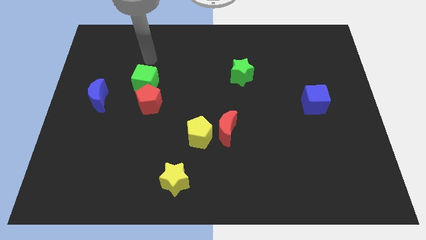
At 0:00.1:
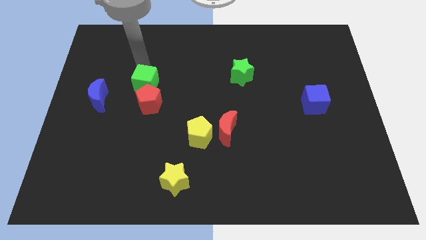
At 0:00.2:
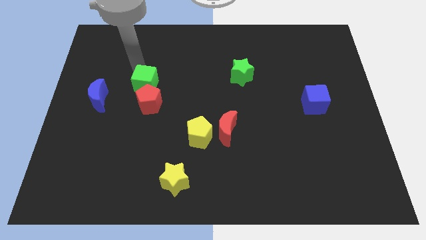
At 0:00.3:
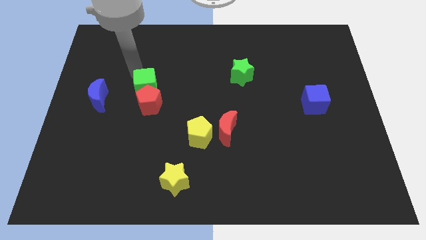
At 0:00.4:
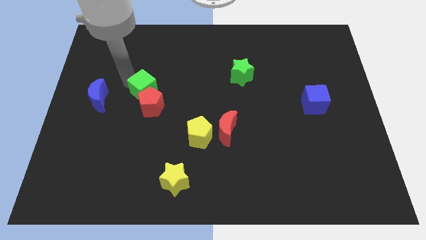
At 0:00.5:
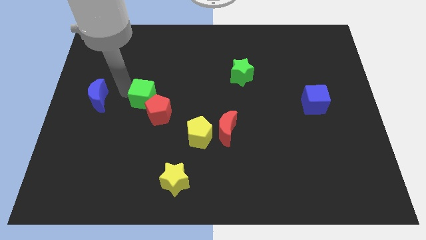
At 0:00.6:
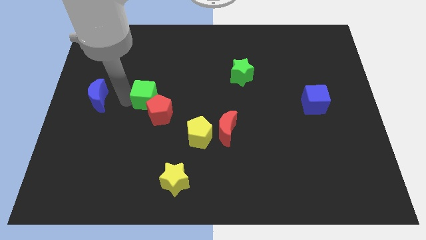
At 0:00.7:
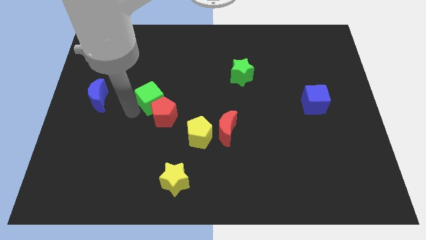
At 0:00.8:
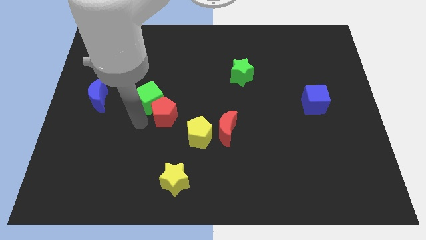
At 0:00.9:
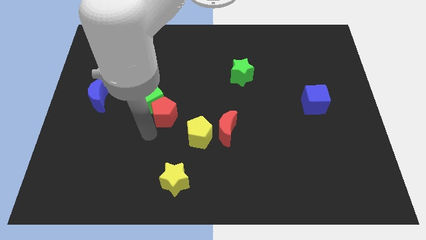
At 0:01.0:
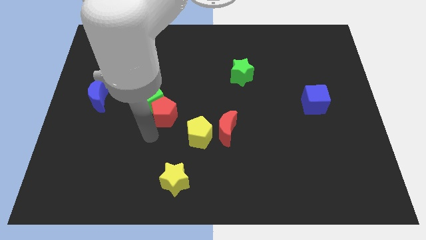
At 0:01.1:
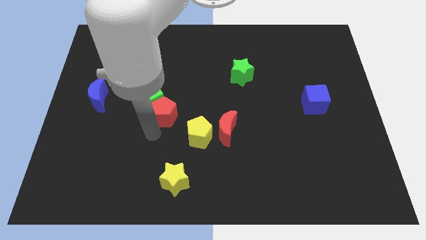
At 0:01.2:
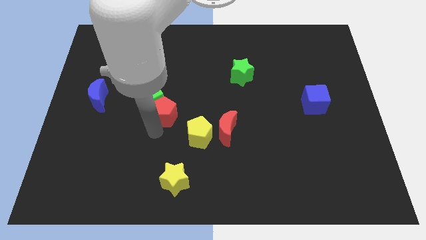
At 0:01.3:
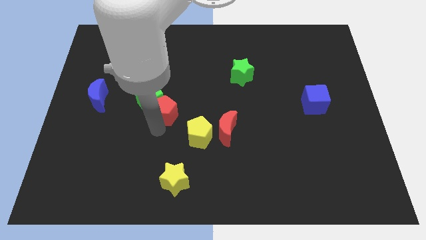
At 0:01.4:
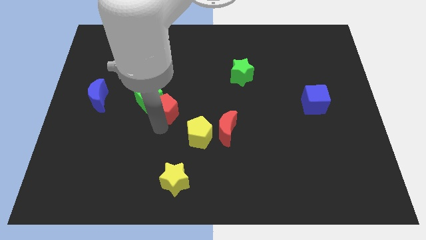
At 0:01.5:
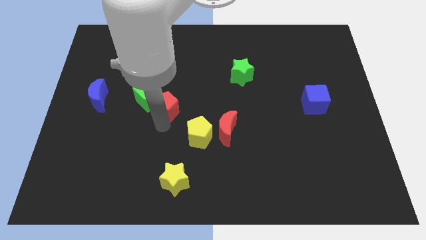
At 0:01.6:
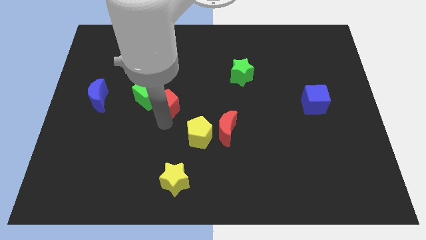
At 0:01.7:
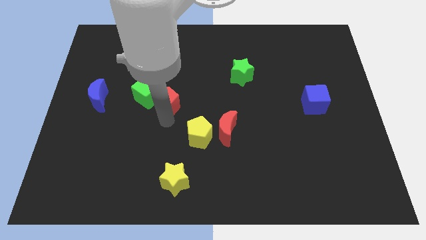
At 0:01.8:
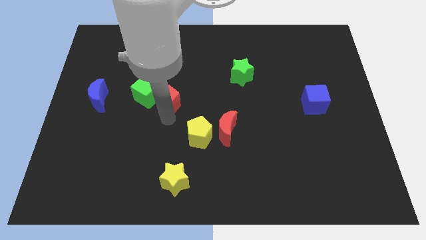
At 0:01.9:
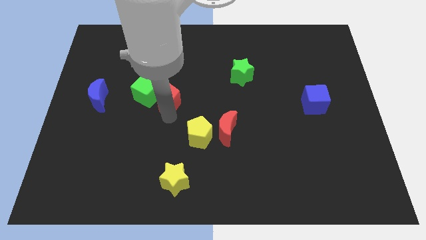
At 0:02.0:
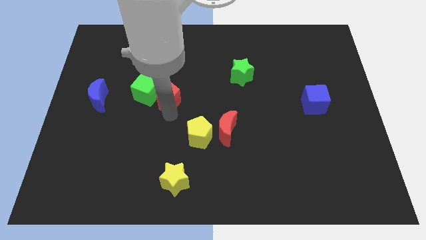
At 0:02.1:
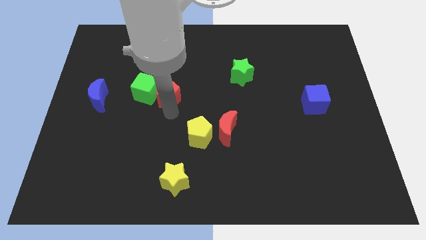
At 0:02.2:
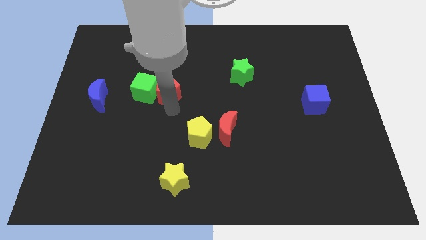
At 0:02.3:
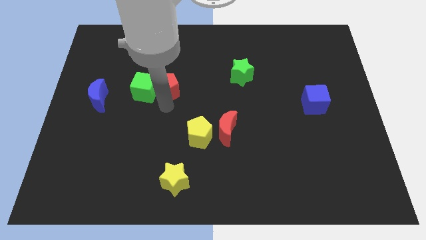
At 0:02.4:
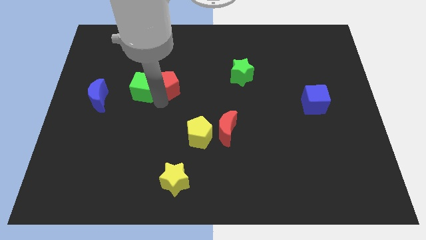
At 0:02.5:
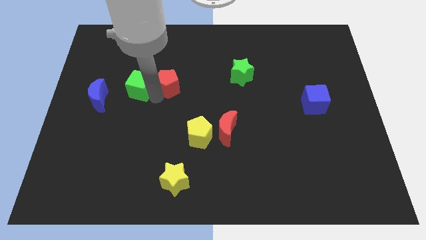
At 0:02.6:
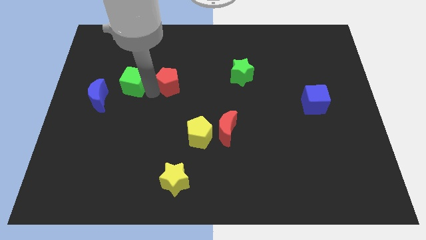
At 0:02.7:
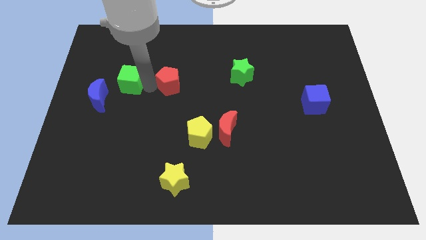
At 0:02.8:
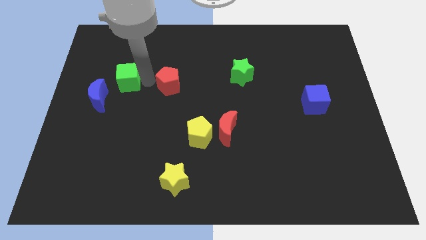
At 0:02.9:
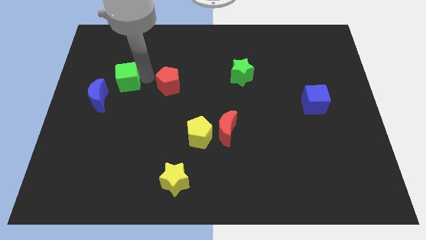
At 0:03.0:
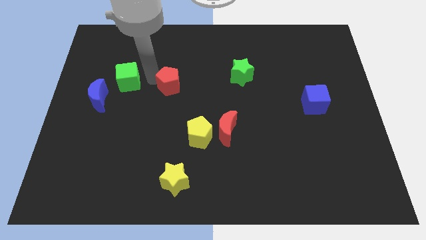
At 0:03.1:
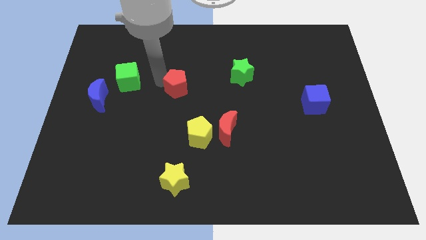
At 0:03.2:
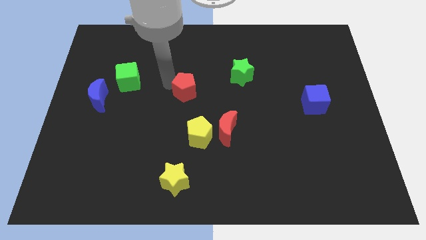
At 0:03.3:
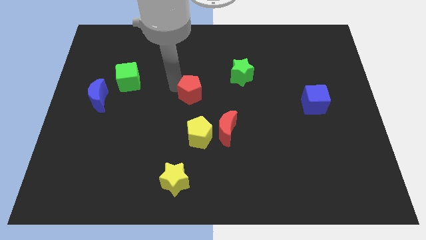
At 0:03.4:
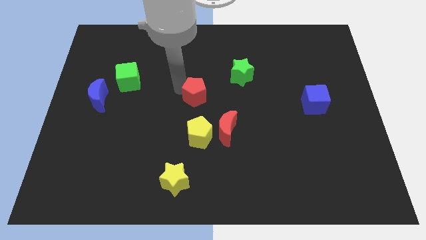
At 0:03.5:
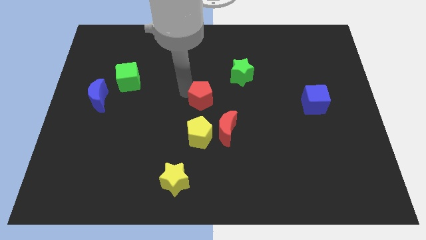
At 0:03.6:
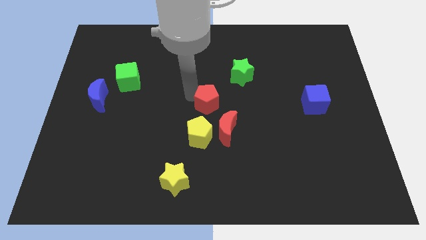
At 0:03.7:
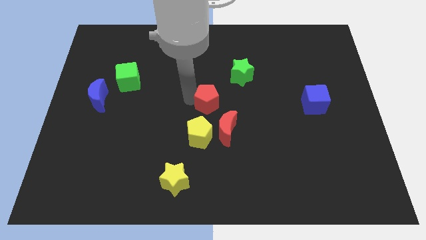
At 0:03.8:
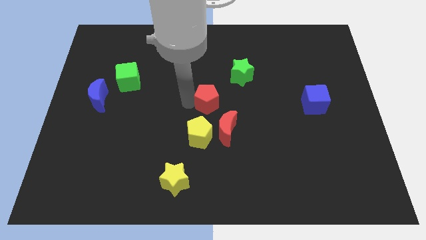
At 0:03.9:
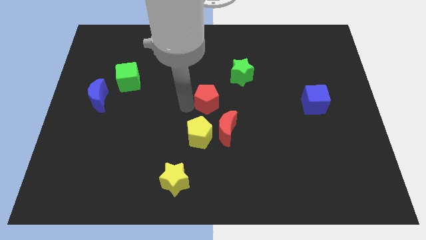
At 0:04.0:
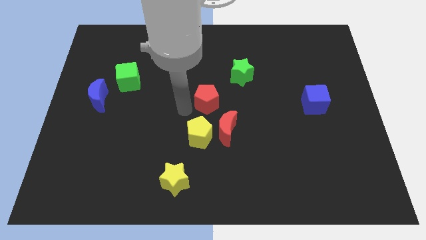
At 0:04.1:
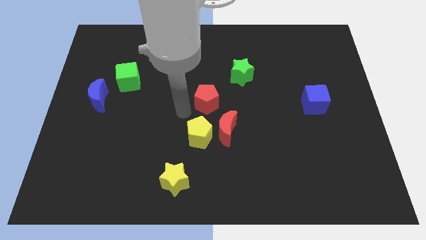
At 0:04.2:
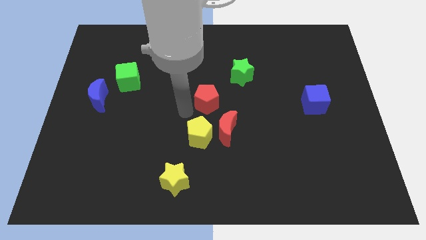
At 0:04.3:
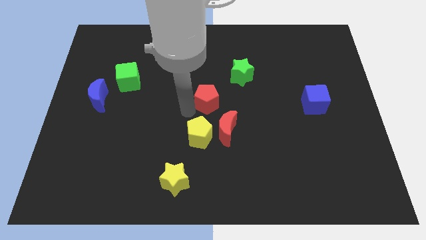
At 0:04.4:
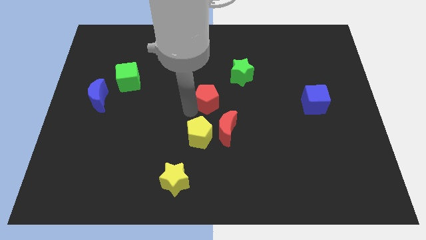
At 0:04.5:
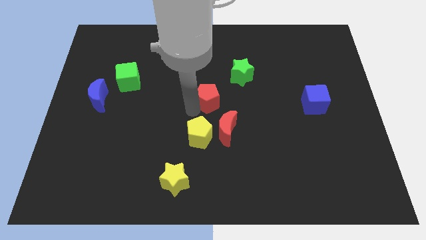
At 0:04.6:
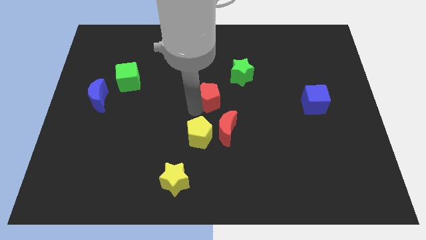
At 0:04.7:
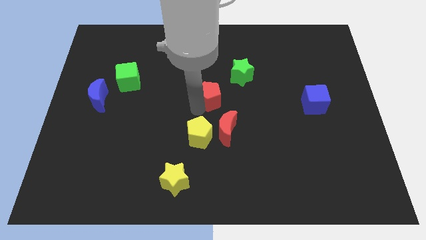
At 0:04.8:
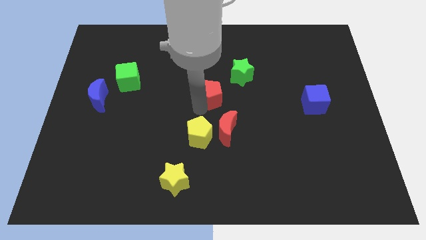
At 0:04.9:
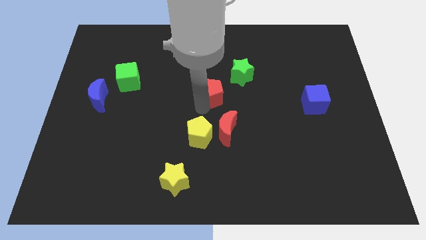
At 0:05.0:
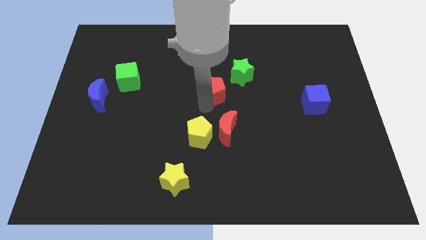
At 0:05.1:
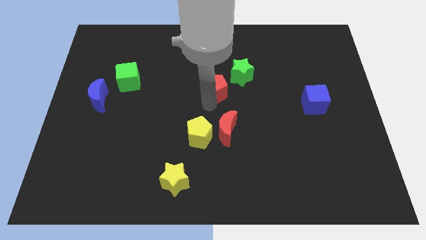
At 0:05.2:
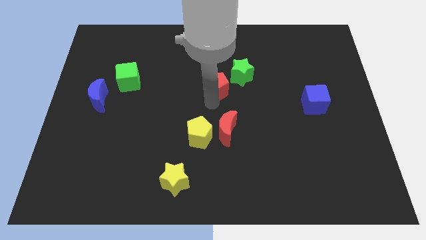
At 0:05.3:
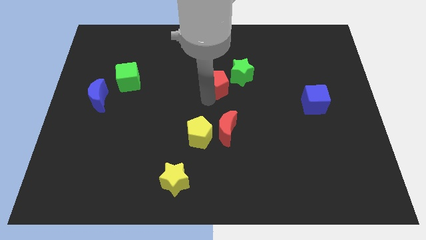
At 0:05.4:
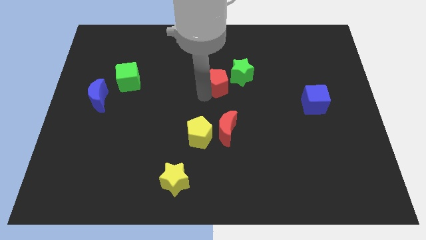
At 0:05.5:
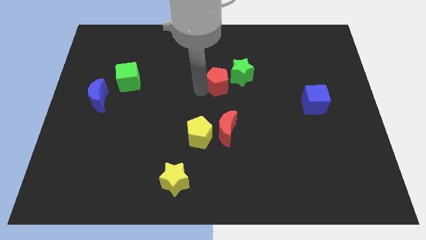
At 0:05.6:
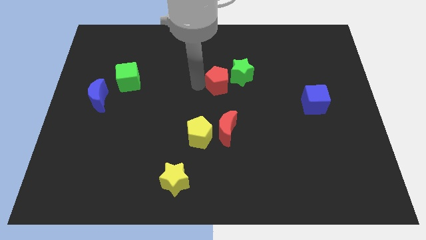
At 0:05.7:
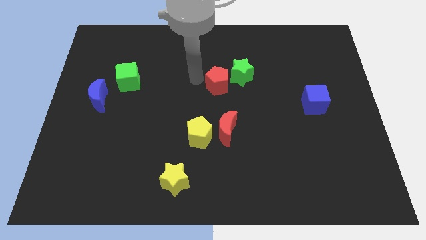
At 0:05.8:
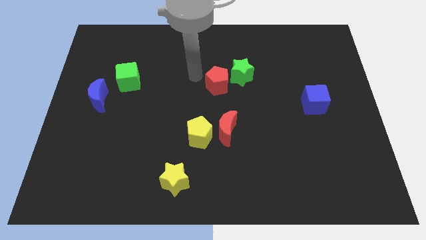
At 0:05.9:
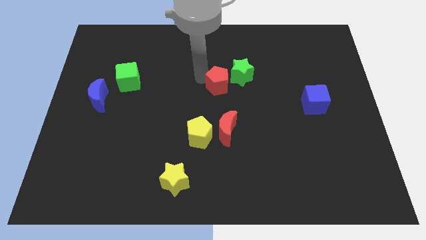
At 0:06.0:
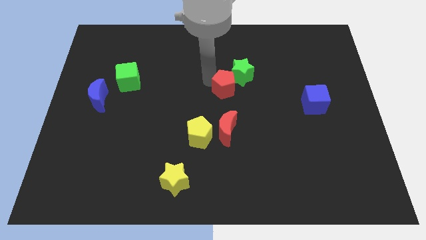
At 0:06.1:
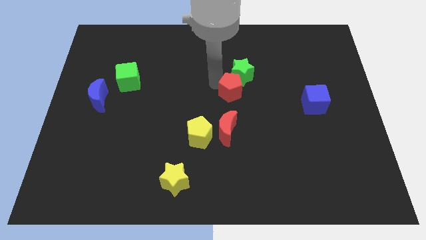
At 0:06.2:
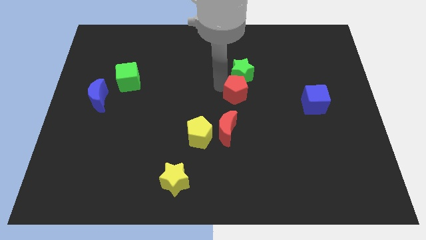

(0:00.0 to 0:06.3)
move the red pentagon right

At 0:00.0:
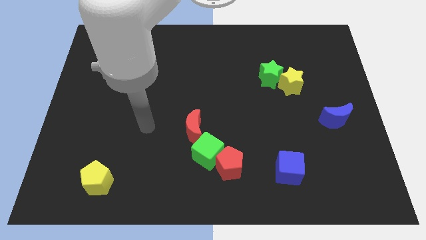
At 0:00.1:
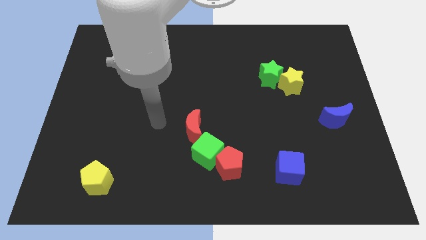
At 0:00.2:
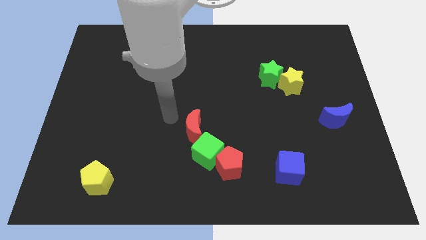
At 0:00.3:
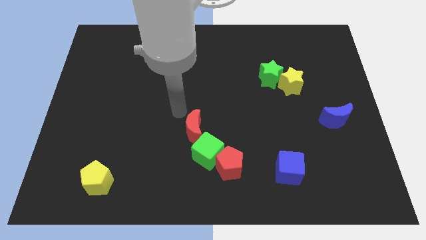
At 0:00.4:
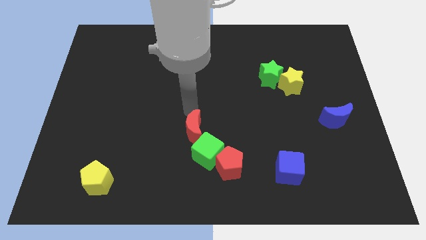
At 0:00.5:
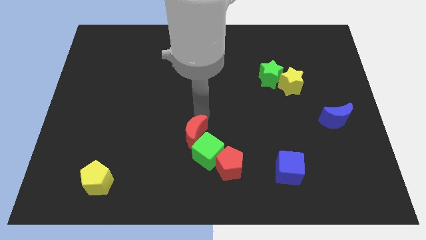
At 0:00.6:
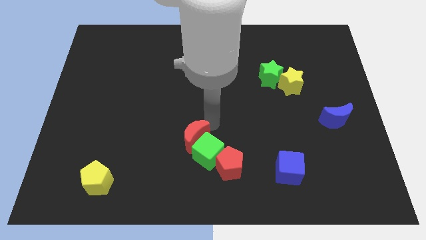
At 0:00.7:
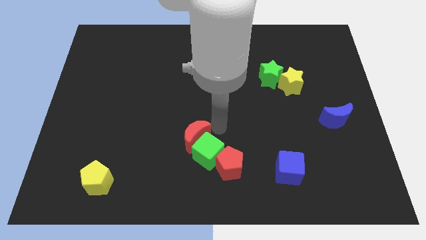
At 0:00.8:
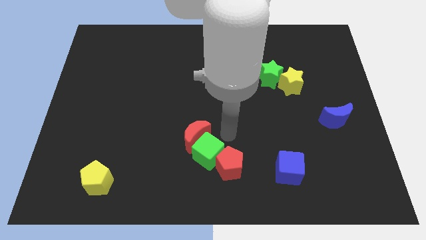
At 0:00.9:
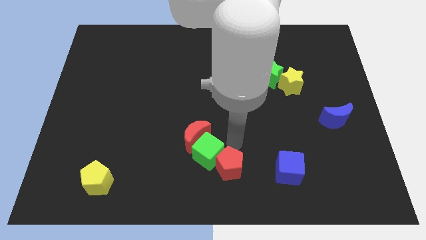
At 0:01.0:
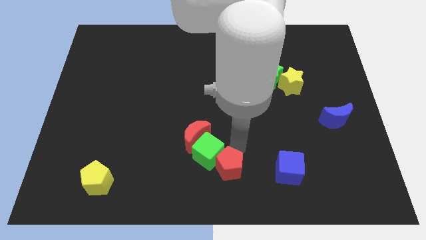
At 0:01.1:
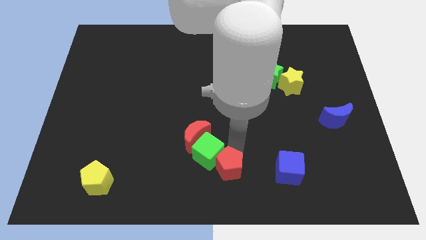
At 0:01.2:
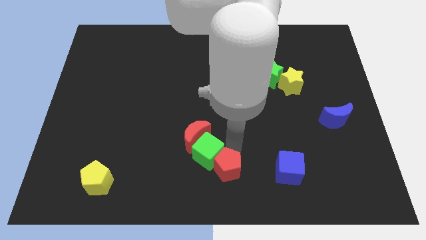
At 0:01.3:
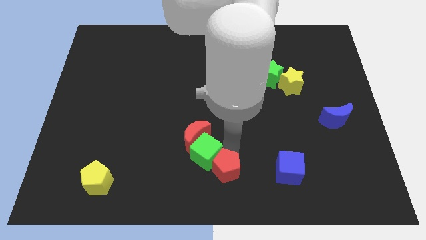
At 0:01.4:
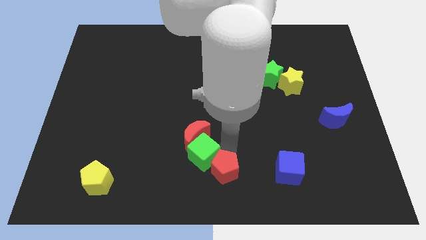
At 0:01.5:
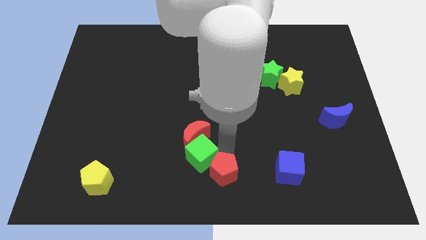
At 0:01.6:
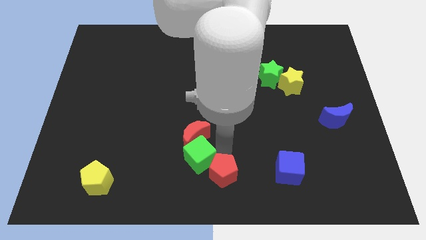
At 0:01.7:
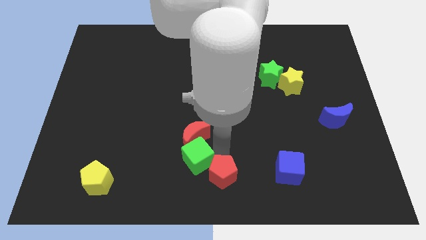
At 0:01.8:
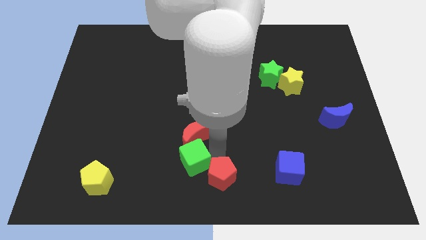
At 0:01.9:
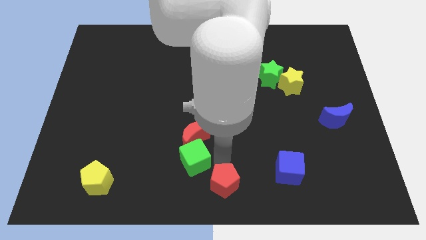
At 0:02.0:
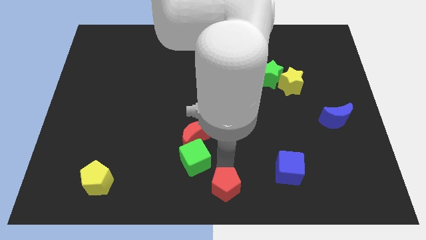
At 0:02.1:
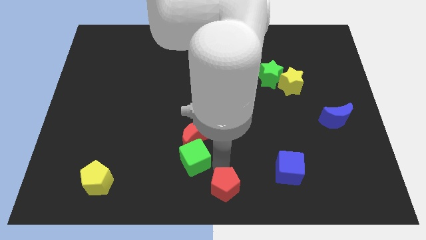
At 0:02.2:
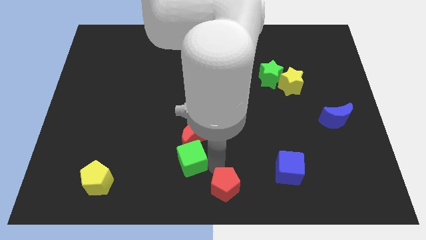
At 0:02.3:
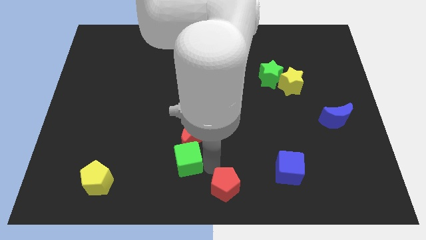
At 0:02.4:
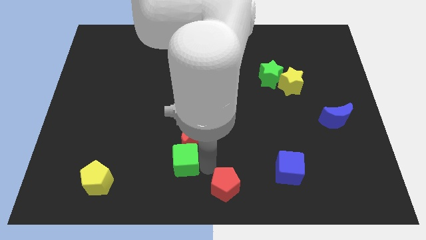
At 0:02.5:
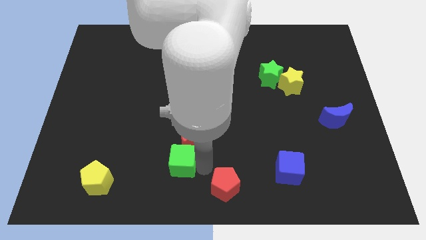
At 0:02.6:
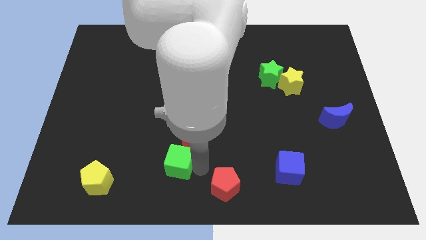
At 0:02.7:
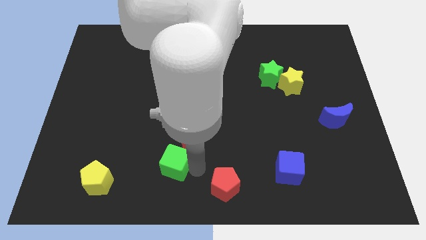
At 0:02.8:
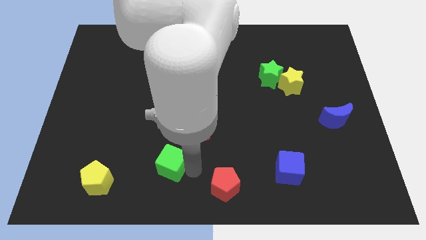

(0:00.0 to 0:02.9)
slightly slide the green cube left
